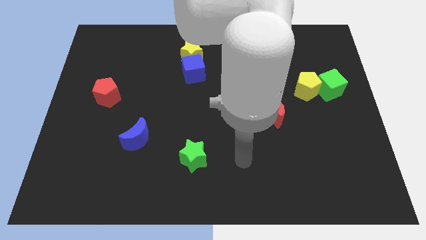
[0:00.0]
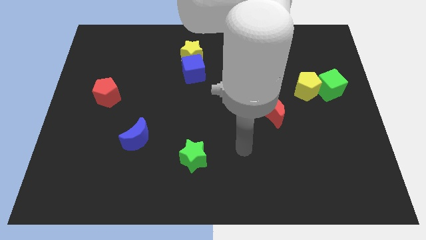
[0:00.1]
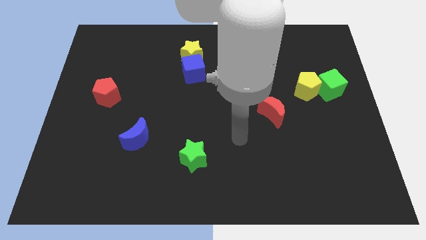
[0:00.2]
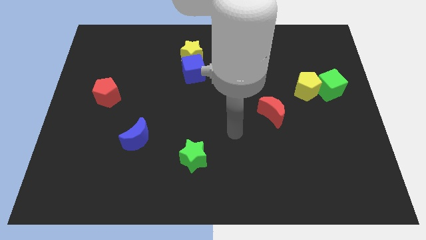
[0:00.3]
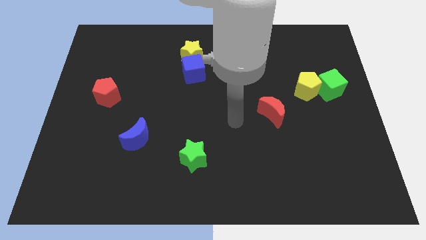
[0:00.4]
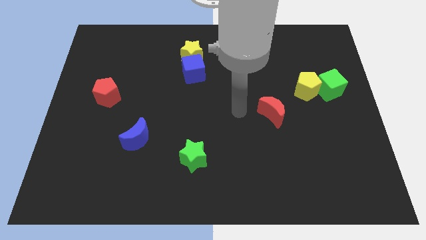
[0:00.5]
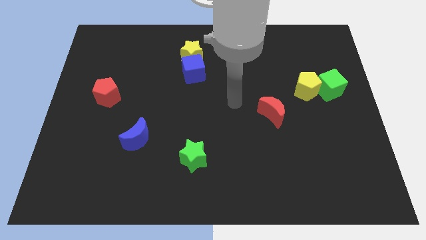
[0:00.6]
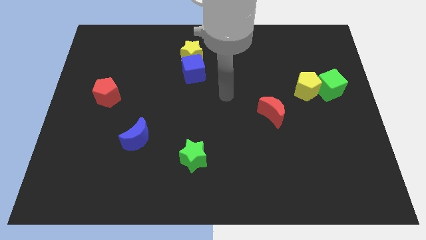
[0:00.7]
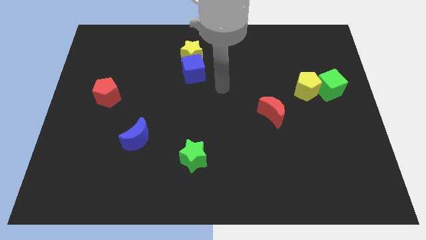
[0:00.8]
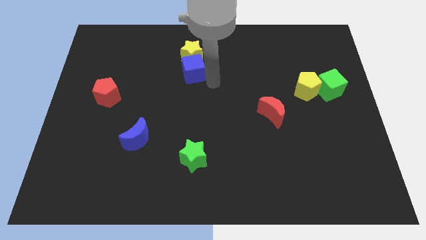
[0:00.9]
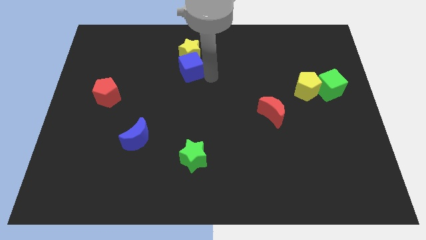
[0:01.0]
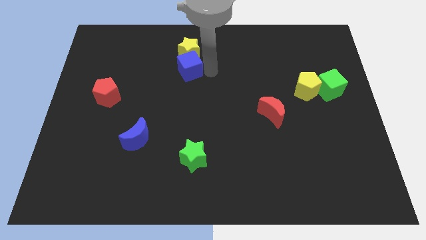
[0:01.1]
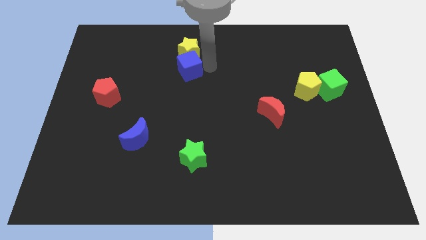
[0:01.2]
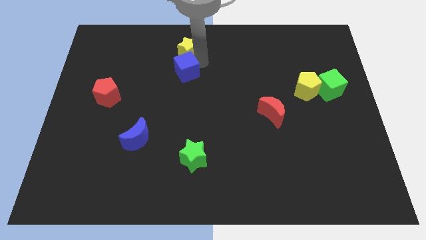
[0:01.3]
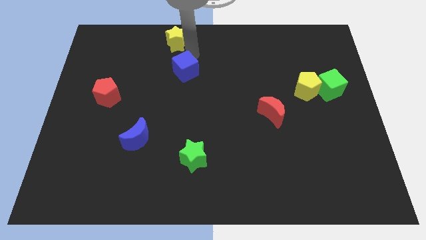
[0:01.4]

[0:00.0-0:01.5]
move the blue cube away from the yellow star

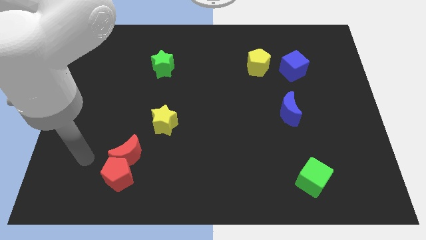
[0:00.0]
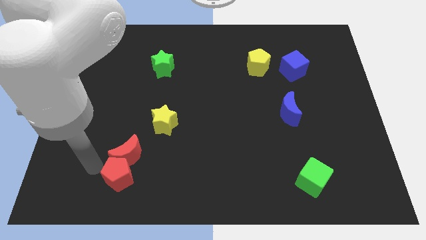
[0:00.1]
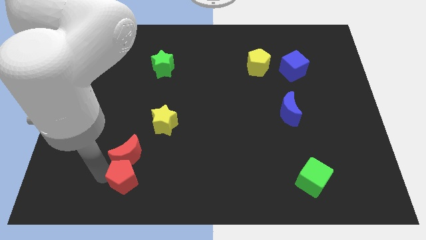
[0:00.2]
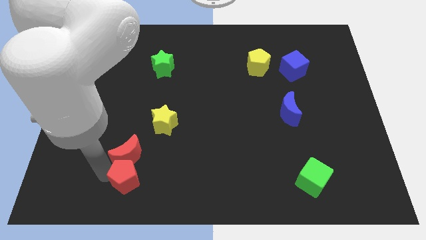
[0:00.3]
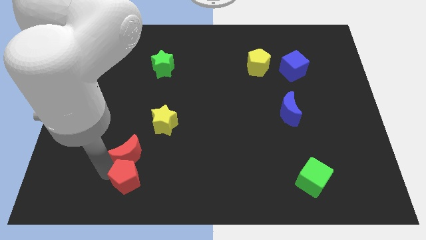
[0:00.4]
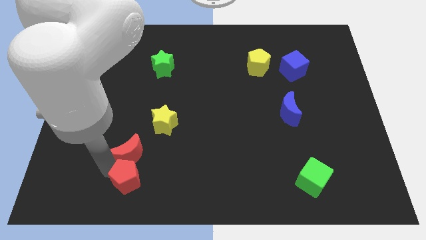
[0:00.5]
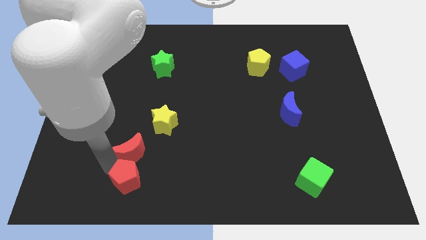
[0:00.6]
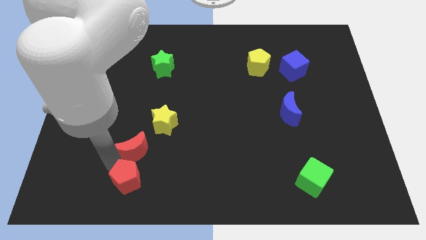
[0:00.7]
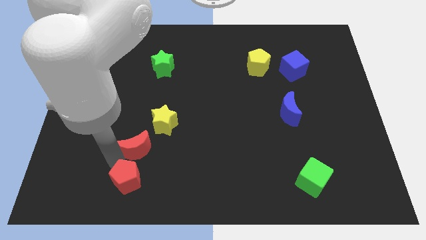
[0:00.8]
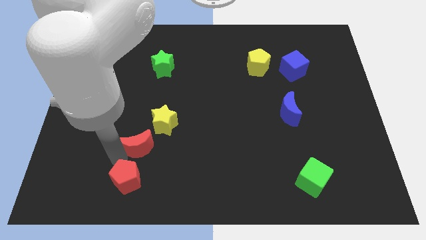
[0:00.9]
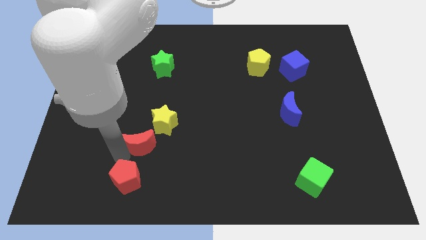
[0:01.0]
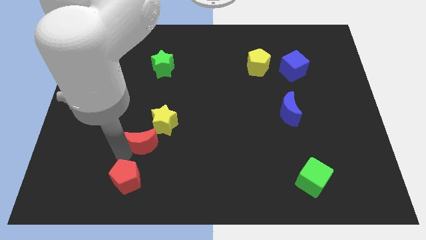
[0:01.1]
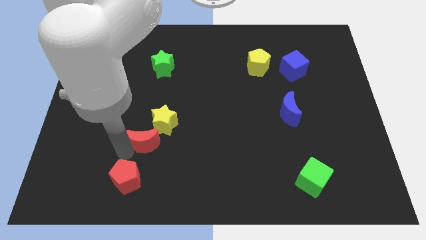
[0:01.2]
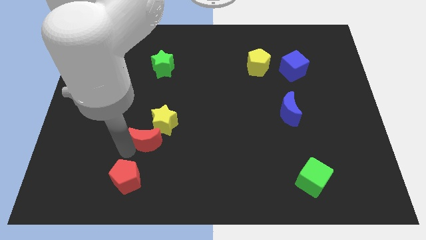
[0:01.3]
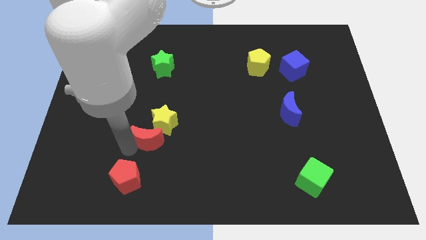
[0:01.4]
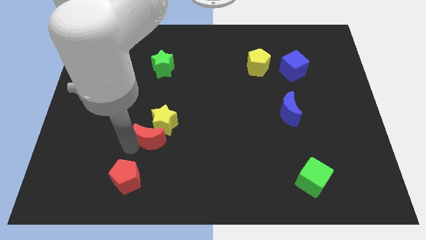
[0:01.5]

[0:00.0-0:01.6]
separate the red moon from the red pentagon

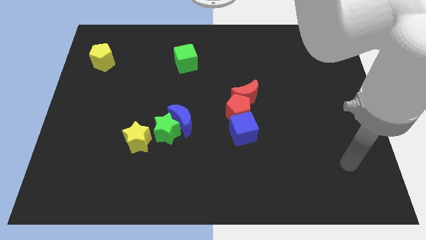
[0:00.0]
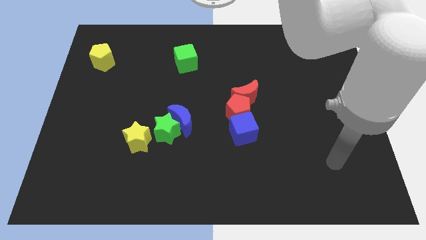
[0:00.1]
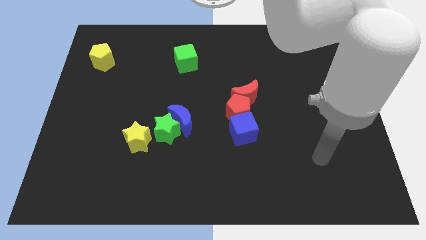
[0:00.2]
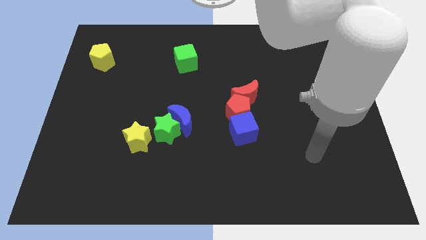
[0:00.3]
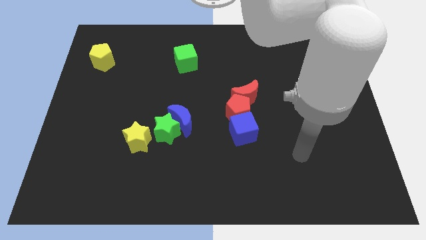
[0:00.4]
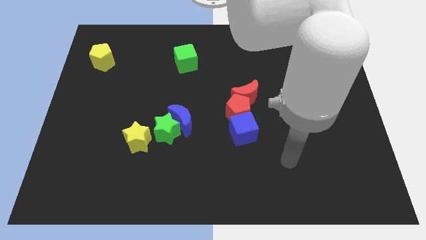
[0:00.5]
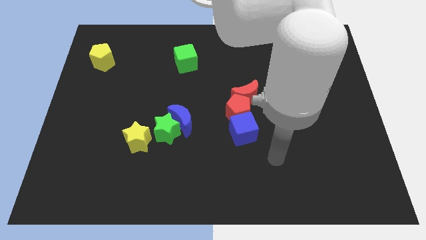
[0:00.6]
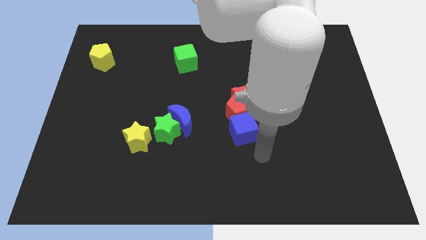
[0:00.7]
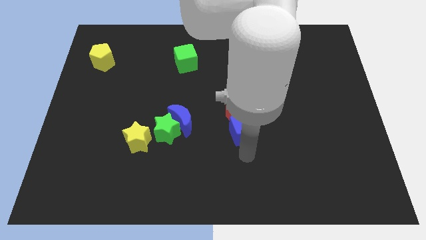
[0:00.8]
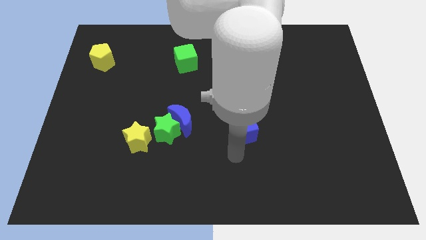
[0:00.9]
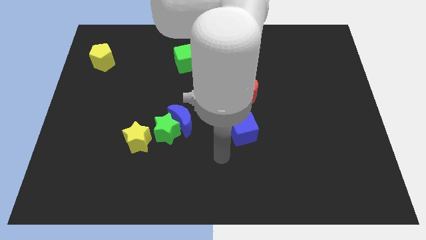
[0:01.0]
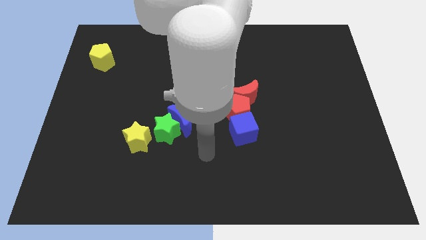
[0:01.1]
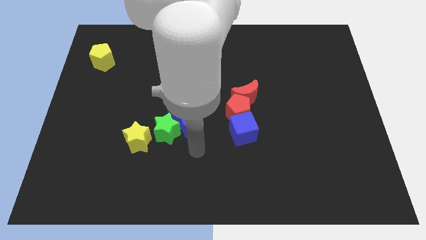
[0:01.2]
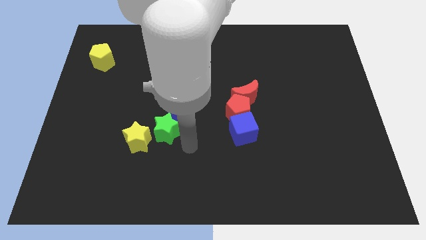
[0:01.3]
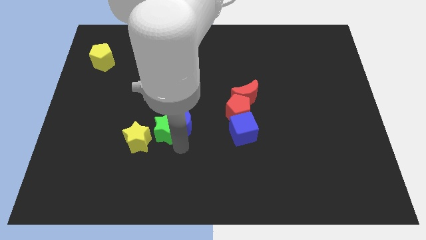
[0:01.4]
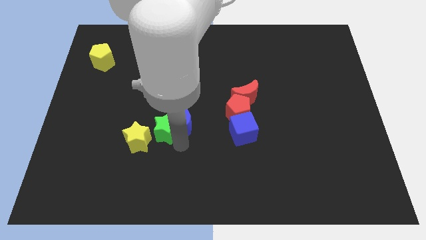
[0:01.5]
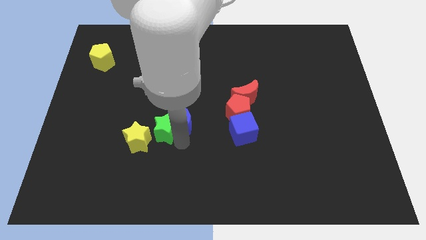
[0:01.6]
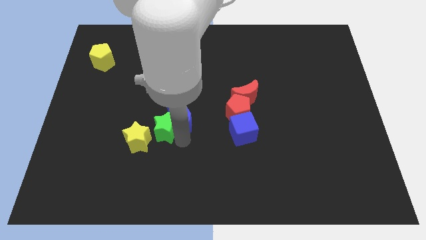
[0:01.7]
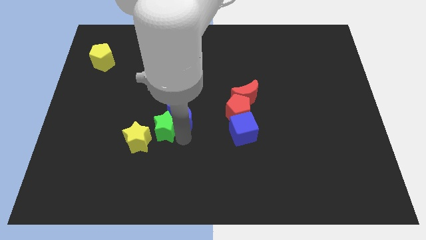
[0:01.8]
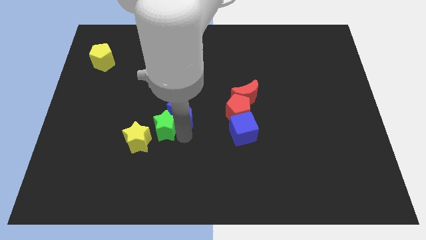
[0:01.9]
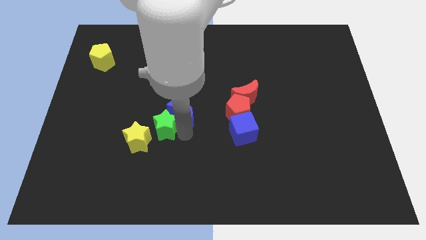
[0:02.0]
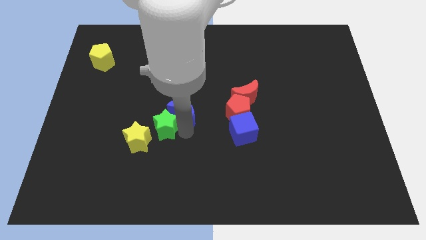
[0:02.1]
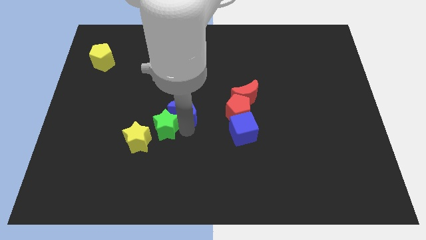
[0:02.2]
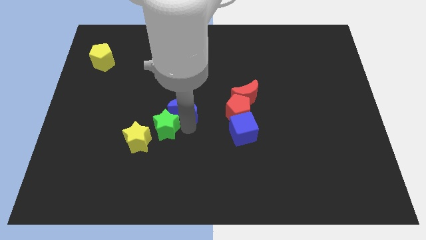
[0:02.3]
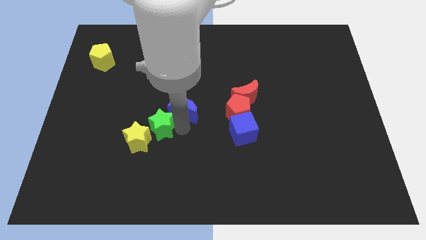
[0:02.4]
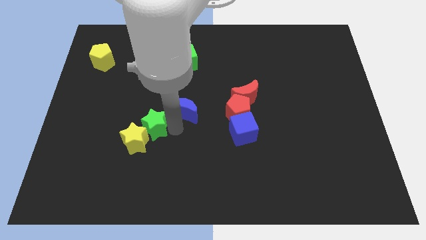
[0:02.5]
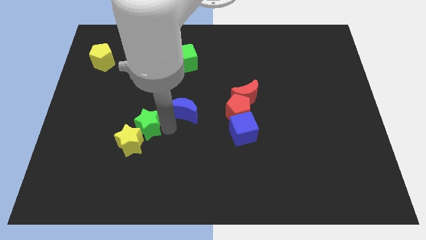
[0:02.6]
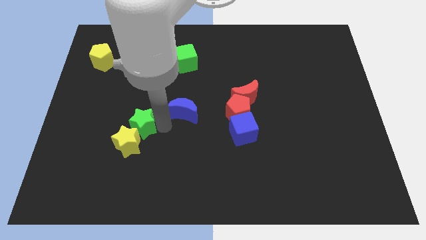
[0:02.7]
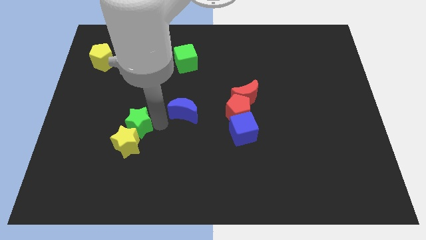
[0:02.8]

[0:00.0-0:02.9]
pull the blue moon apart from the green star

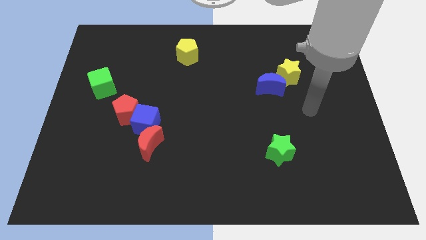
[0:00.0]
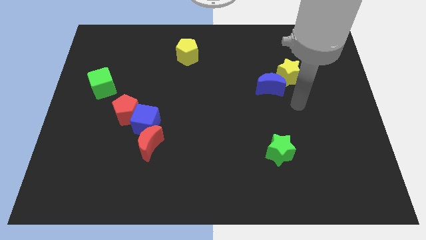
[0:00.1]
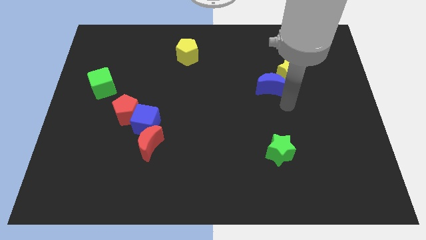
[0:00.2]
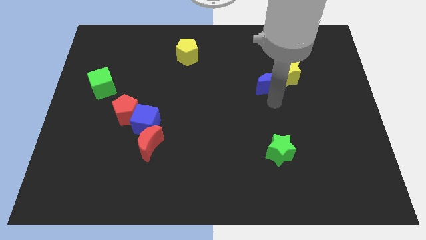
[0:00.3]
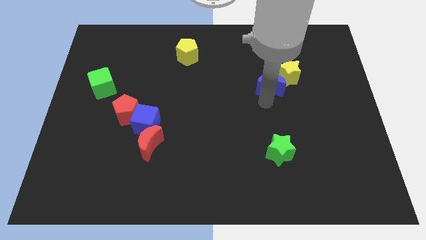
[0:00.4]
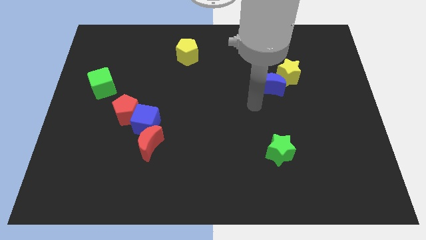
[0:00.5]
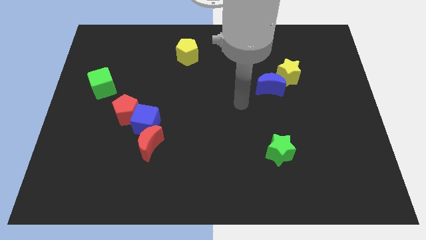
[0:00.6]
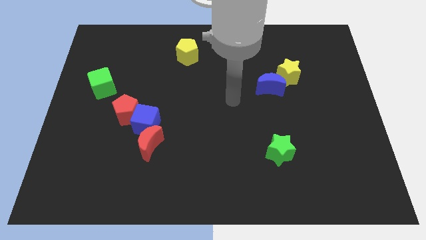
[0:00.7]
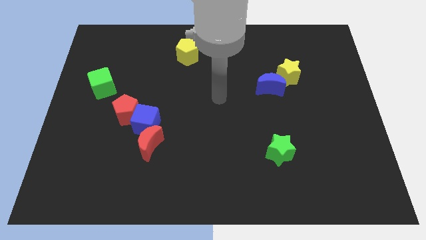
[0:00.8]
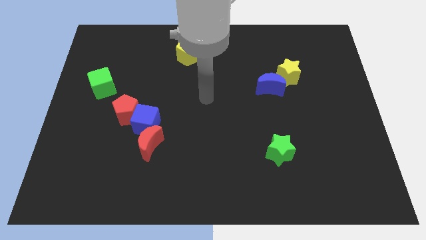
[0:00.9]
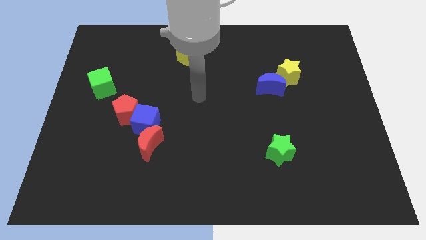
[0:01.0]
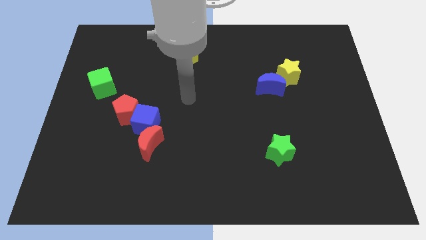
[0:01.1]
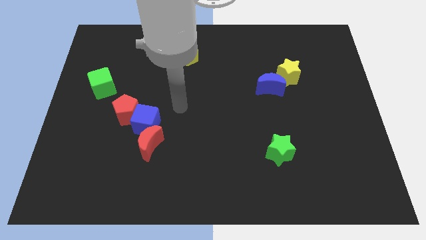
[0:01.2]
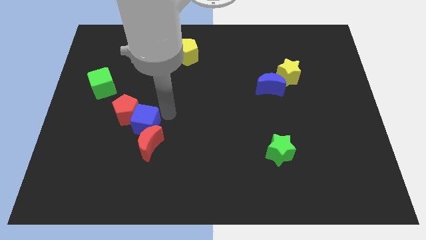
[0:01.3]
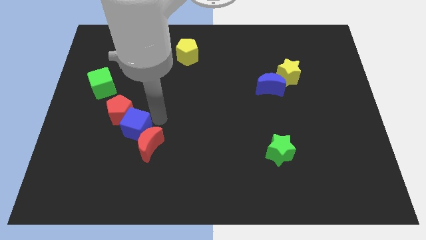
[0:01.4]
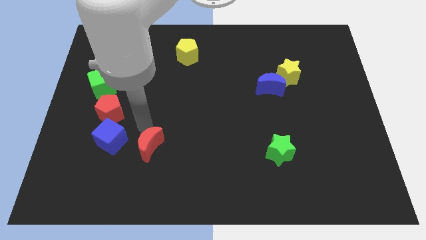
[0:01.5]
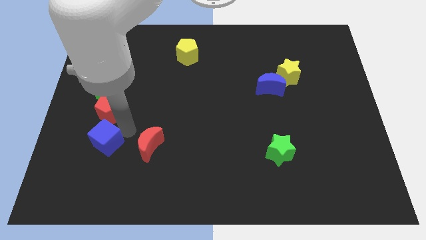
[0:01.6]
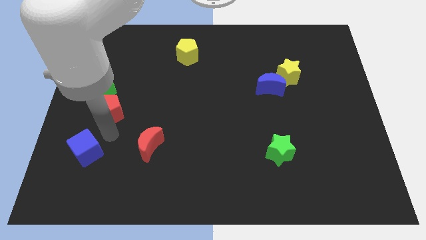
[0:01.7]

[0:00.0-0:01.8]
separate the red pentagon from the blue cube

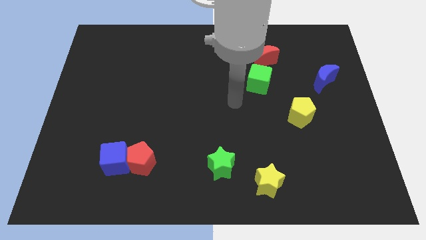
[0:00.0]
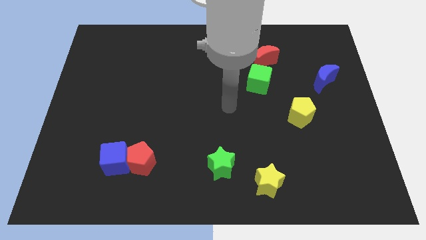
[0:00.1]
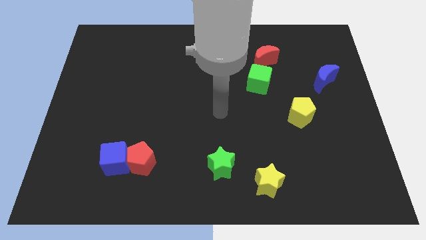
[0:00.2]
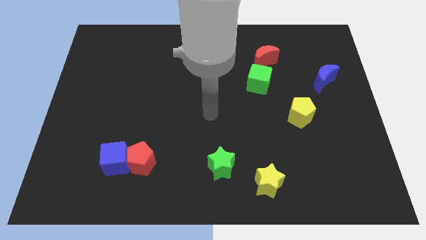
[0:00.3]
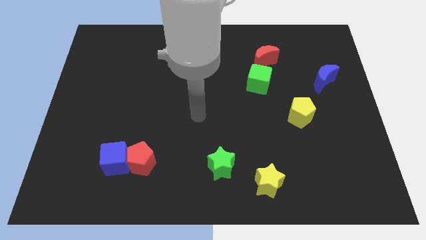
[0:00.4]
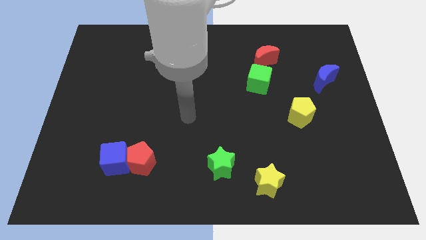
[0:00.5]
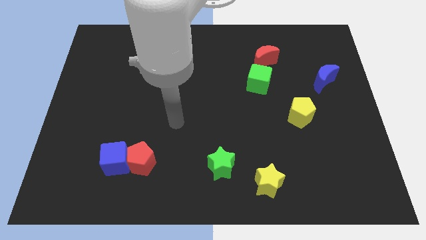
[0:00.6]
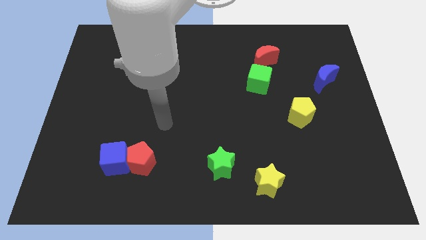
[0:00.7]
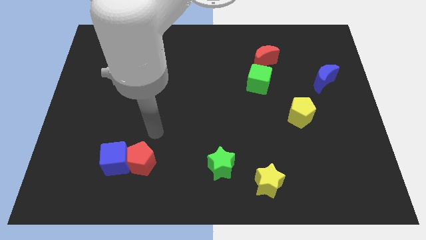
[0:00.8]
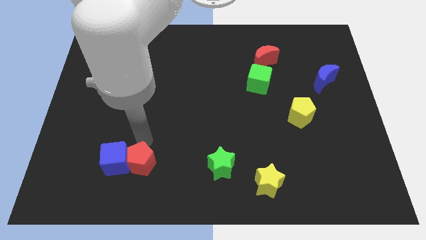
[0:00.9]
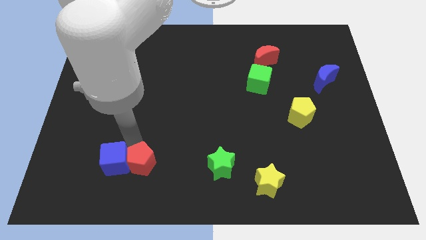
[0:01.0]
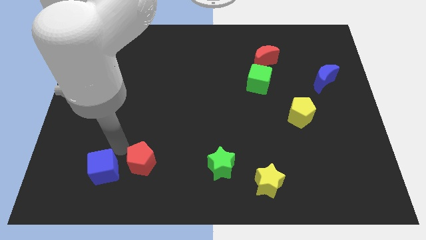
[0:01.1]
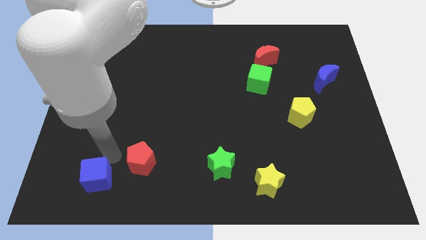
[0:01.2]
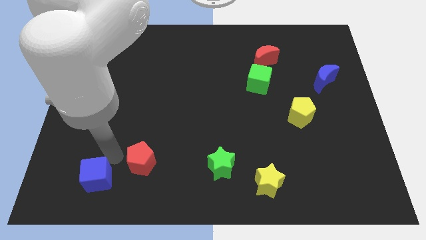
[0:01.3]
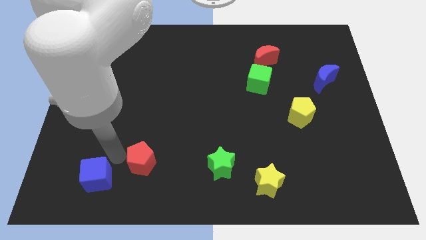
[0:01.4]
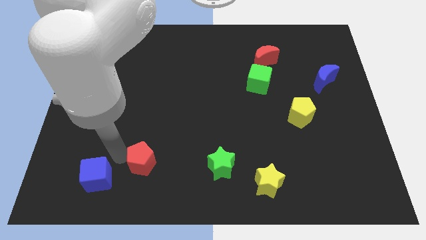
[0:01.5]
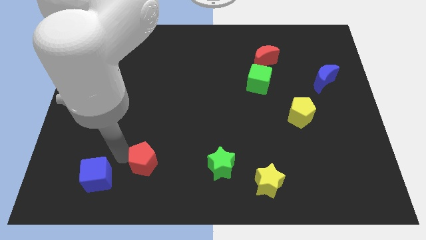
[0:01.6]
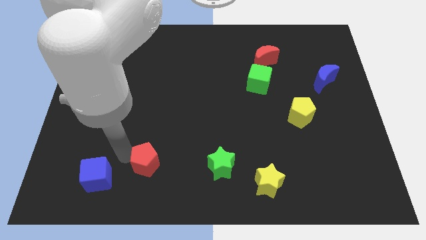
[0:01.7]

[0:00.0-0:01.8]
pull the red pentagon apart from the blue cube
